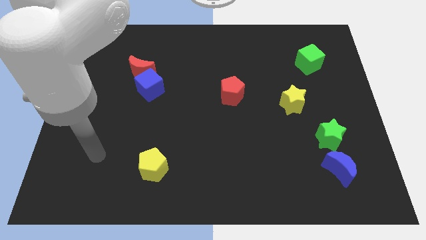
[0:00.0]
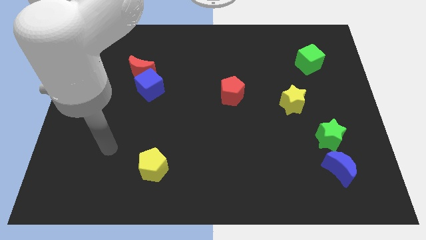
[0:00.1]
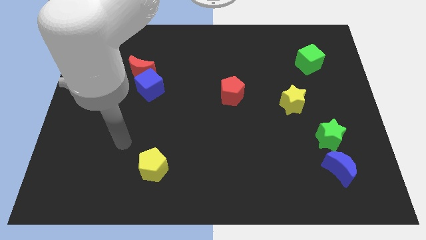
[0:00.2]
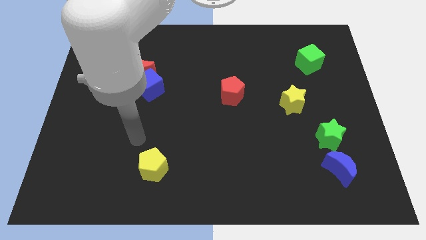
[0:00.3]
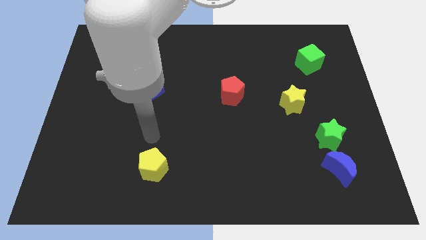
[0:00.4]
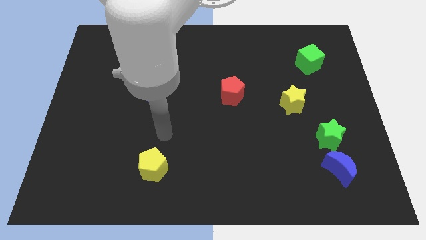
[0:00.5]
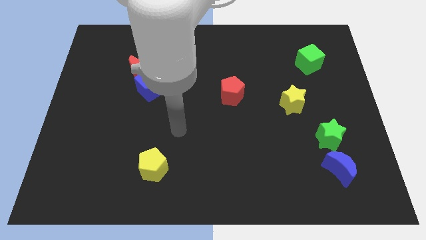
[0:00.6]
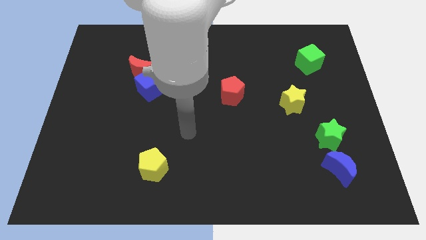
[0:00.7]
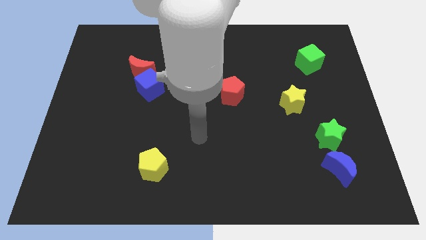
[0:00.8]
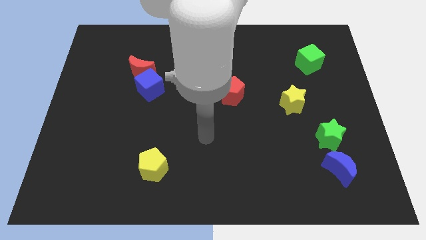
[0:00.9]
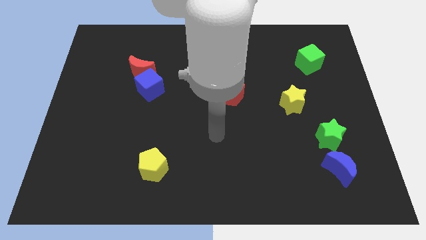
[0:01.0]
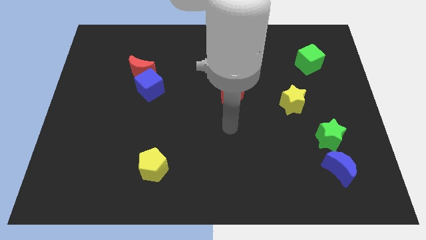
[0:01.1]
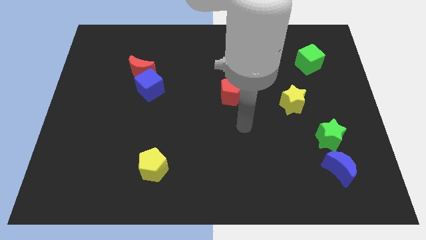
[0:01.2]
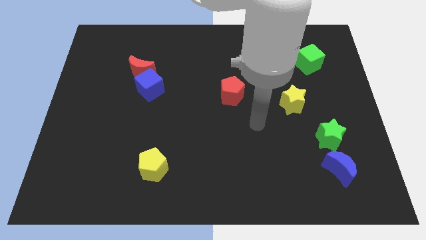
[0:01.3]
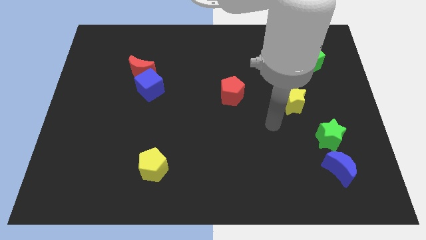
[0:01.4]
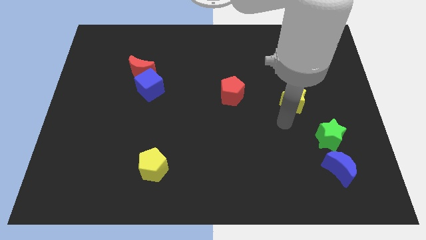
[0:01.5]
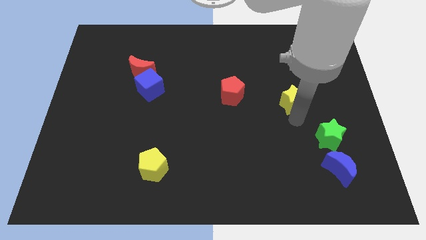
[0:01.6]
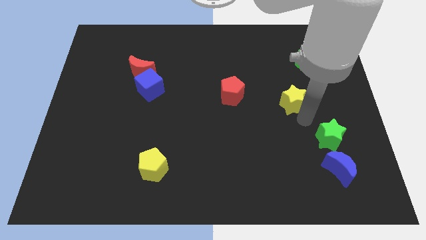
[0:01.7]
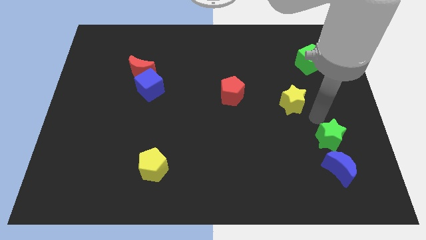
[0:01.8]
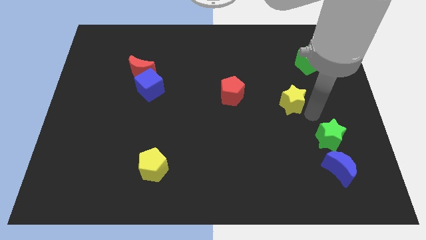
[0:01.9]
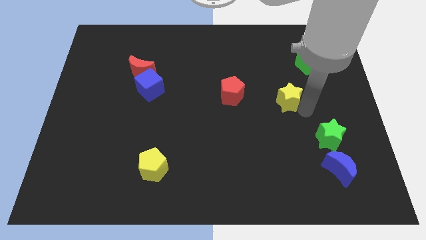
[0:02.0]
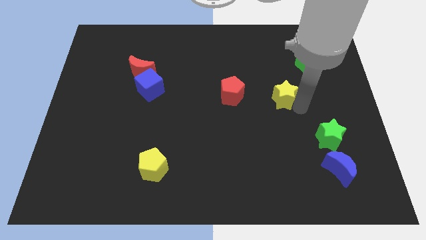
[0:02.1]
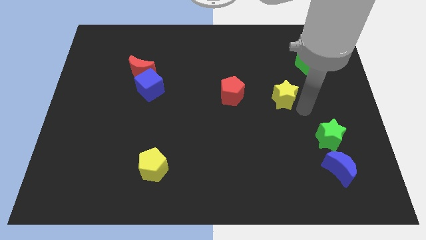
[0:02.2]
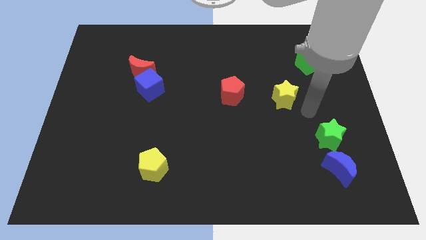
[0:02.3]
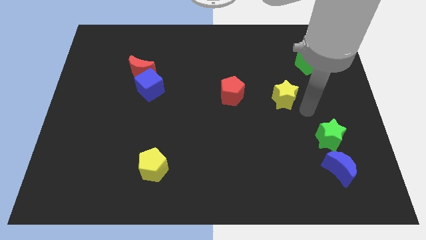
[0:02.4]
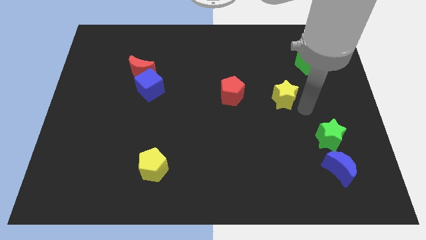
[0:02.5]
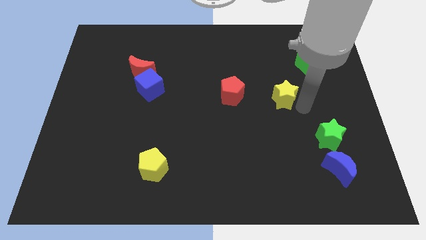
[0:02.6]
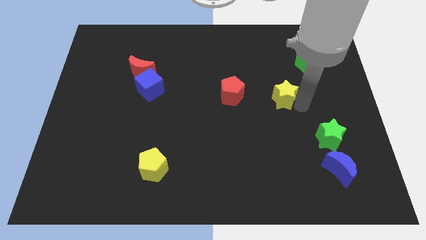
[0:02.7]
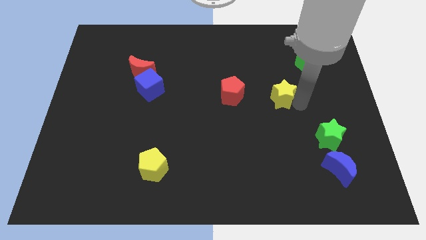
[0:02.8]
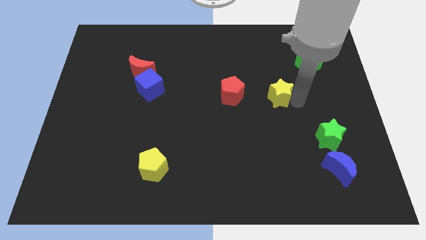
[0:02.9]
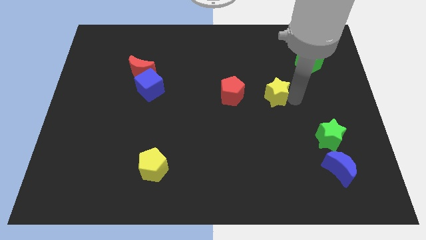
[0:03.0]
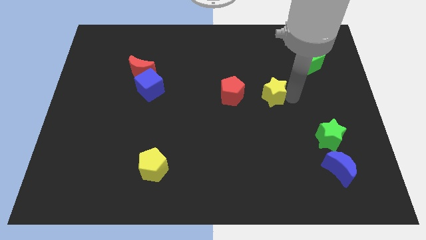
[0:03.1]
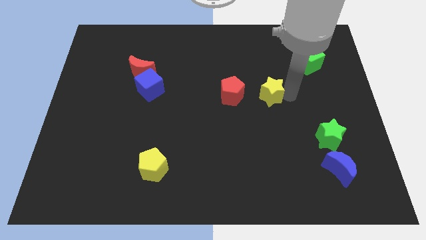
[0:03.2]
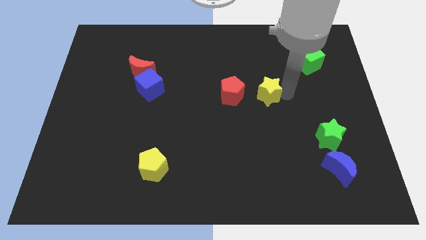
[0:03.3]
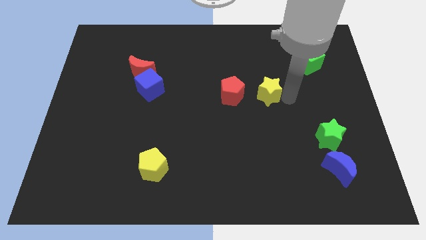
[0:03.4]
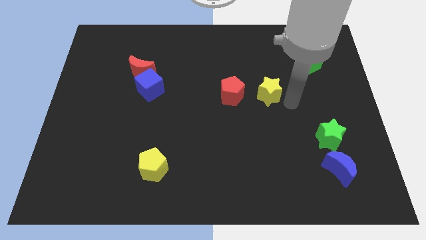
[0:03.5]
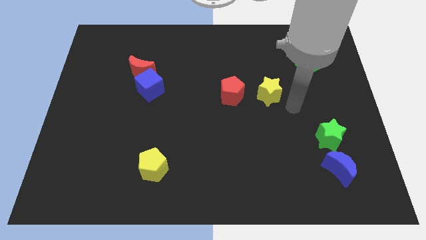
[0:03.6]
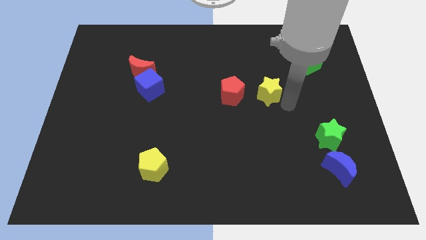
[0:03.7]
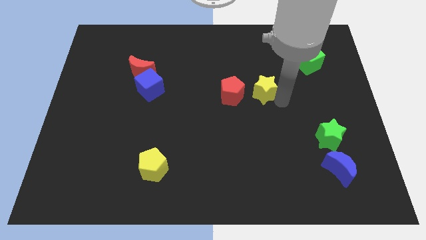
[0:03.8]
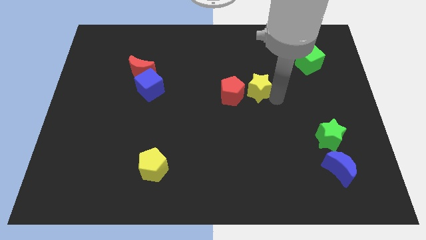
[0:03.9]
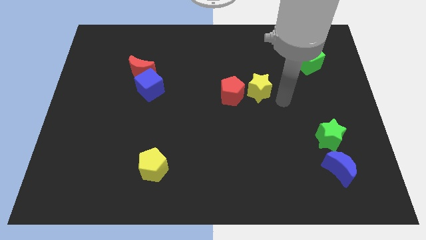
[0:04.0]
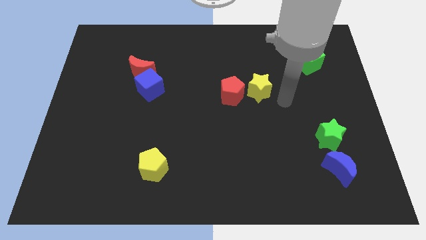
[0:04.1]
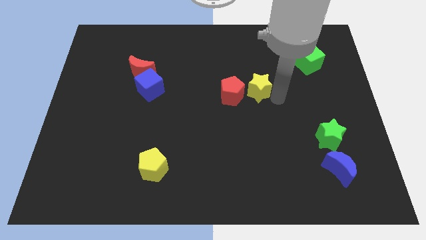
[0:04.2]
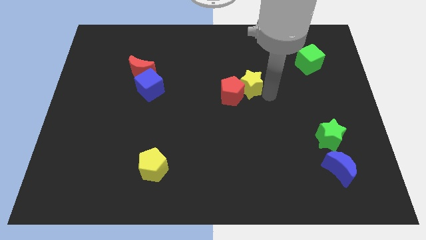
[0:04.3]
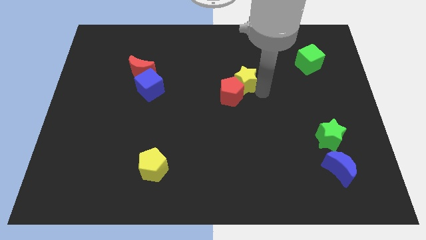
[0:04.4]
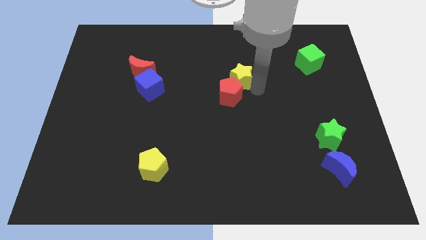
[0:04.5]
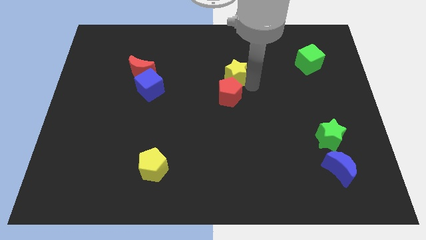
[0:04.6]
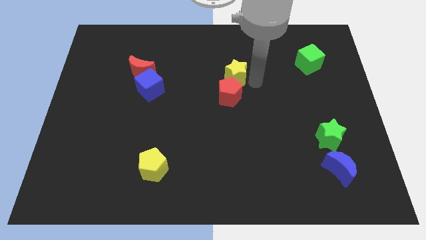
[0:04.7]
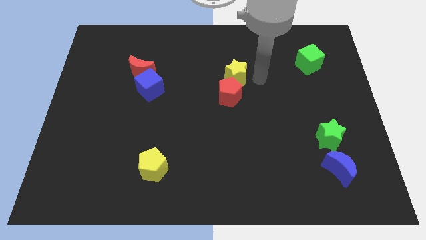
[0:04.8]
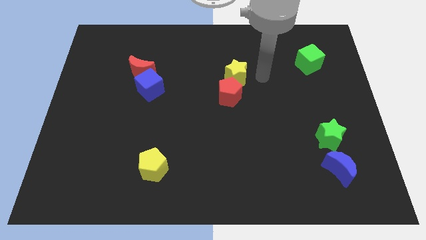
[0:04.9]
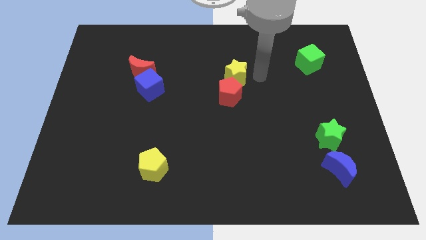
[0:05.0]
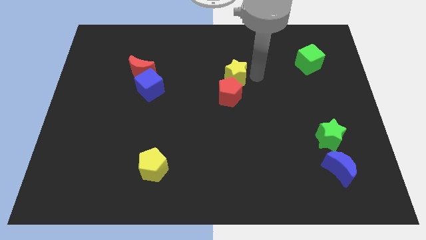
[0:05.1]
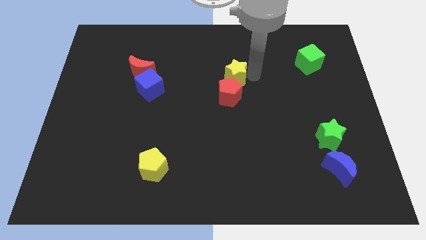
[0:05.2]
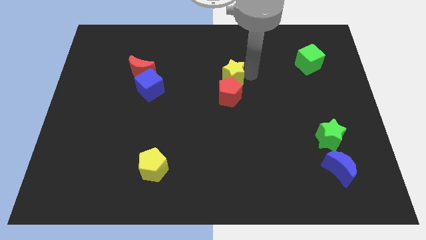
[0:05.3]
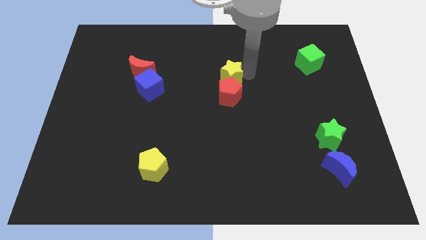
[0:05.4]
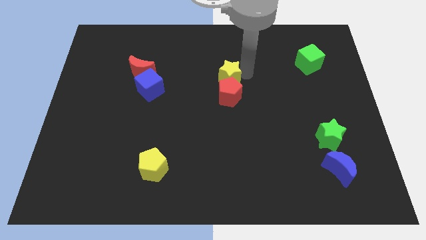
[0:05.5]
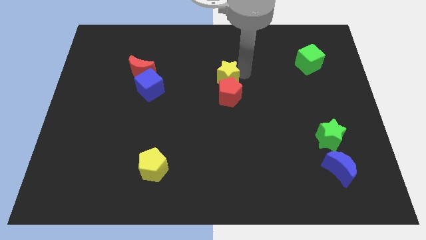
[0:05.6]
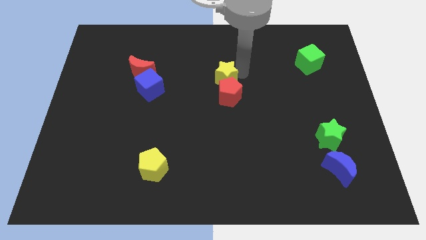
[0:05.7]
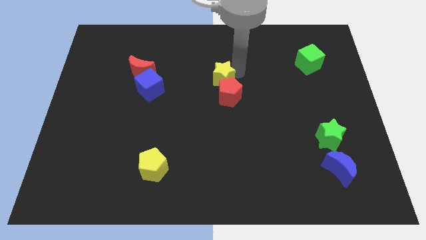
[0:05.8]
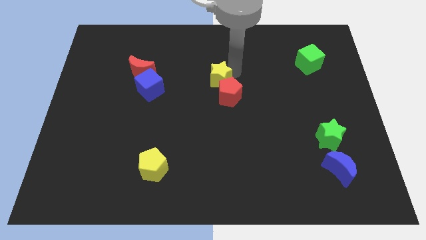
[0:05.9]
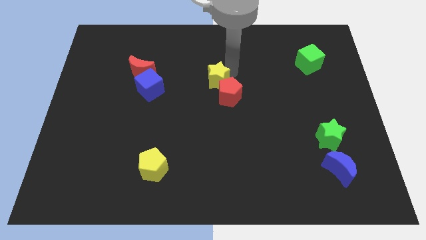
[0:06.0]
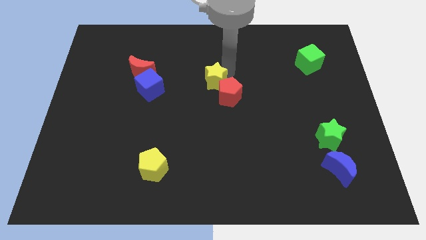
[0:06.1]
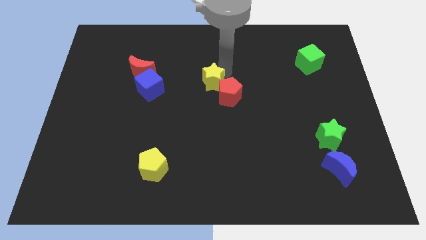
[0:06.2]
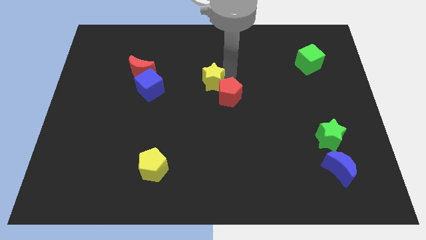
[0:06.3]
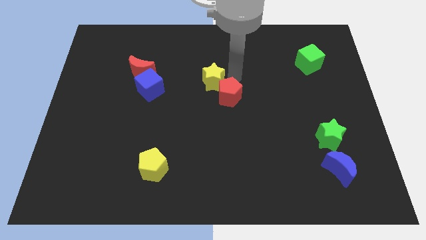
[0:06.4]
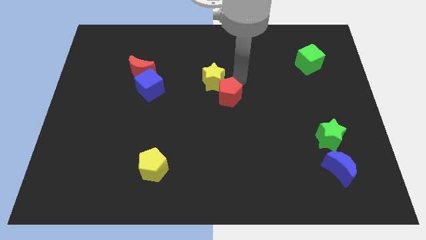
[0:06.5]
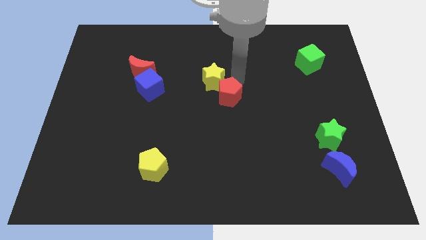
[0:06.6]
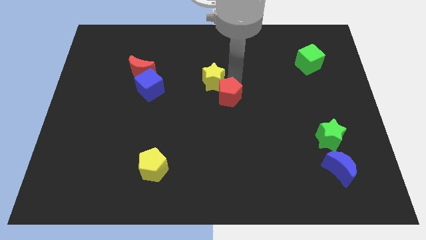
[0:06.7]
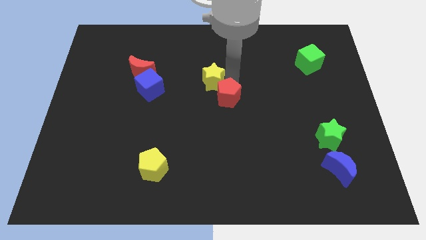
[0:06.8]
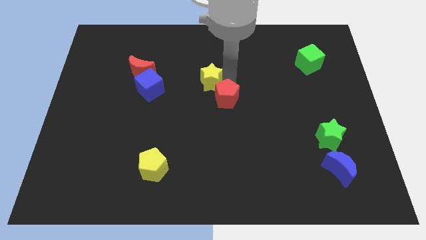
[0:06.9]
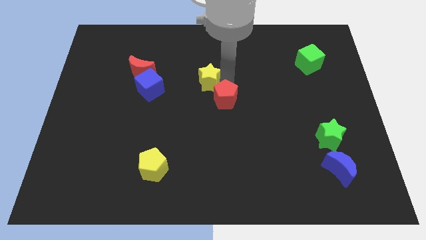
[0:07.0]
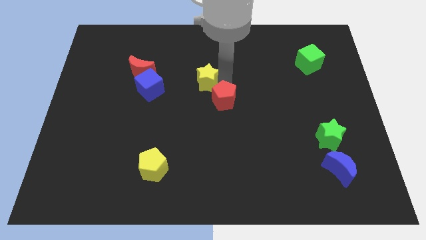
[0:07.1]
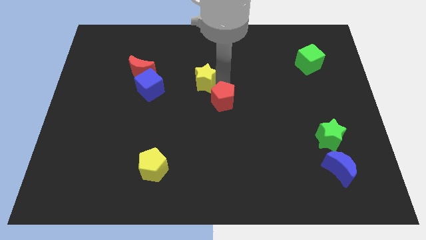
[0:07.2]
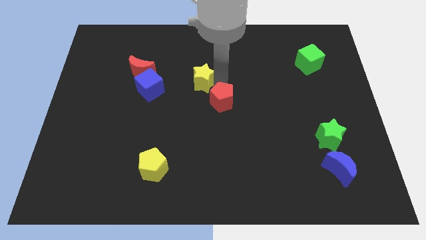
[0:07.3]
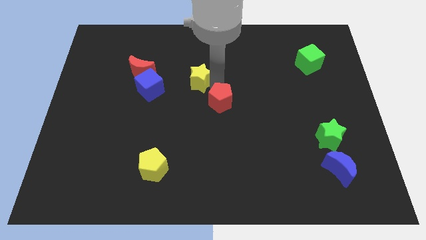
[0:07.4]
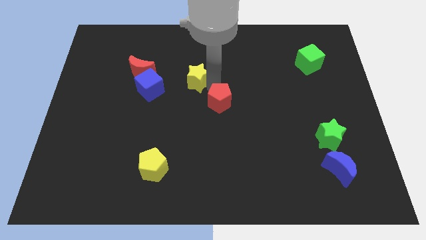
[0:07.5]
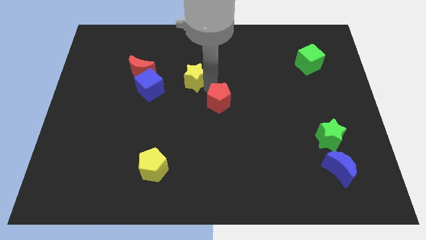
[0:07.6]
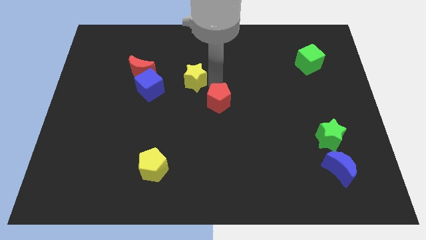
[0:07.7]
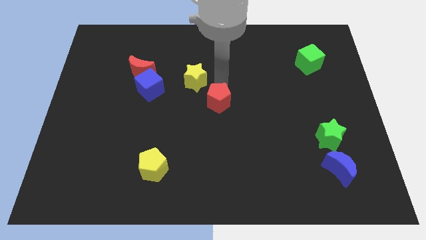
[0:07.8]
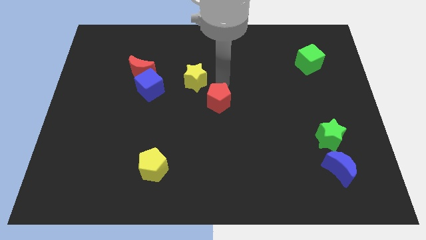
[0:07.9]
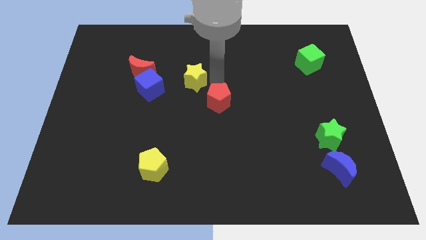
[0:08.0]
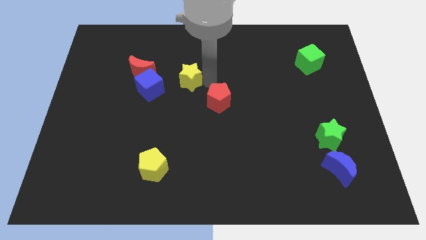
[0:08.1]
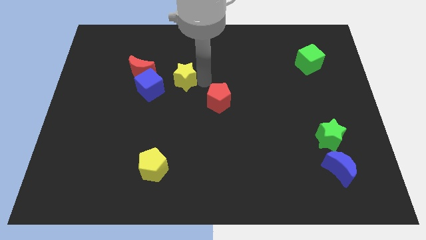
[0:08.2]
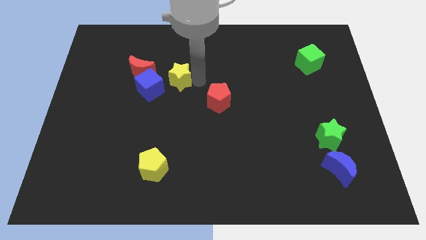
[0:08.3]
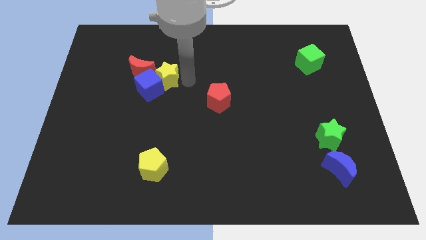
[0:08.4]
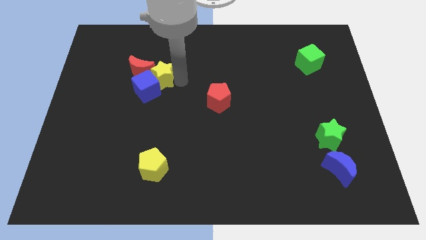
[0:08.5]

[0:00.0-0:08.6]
push the yellow star next to the red moon
